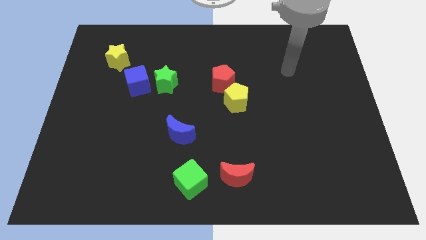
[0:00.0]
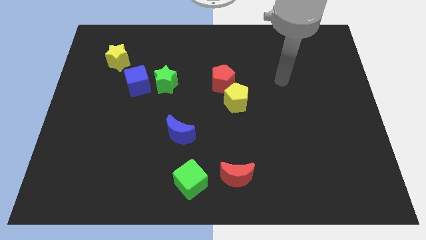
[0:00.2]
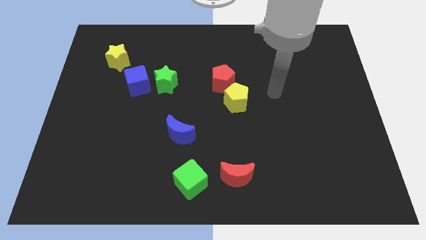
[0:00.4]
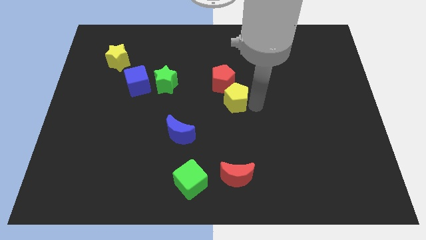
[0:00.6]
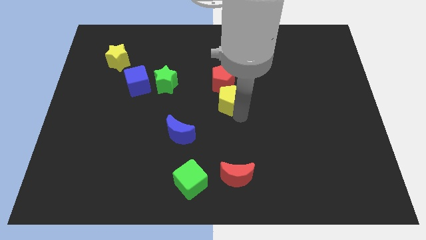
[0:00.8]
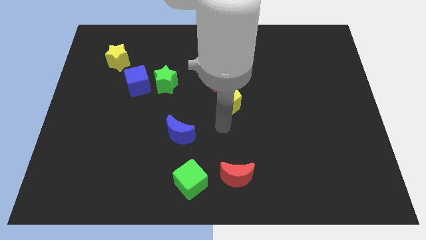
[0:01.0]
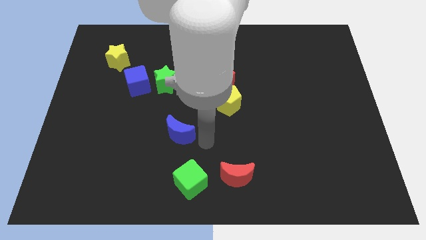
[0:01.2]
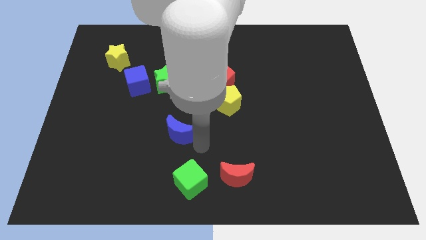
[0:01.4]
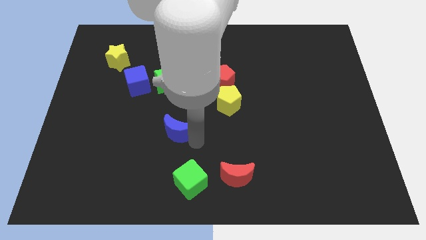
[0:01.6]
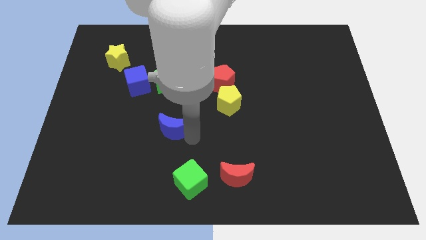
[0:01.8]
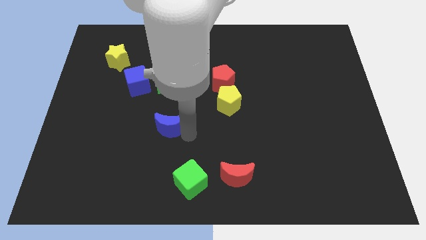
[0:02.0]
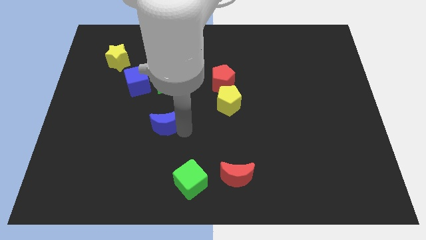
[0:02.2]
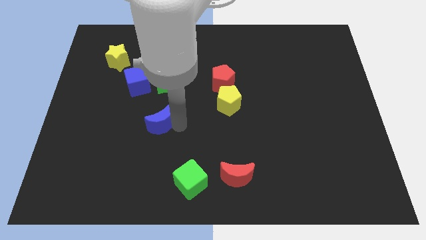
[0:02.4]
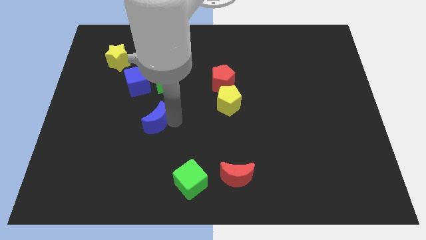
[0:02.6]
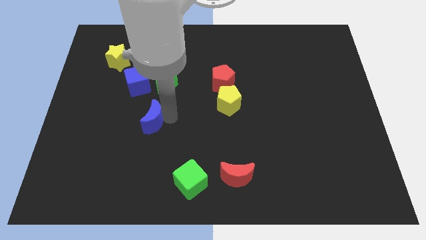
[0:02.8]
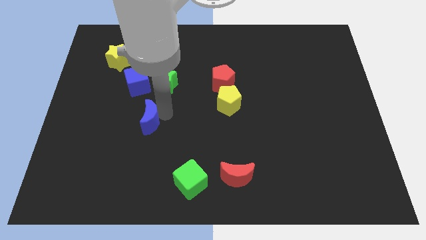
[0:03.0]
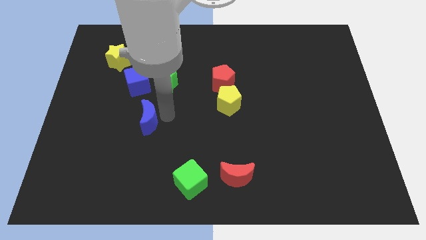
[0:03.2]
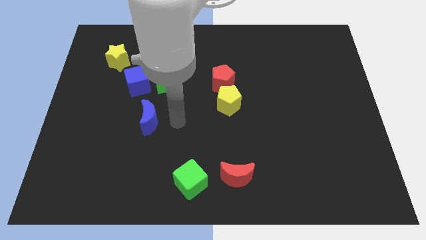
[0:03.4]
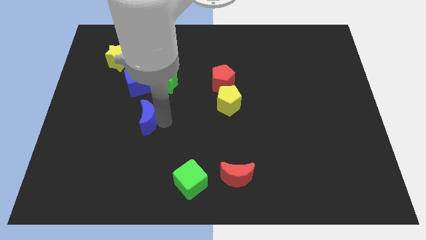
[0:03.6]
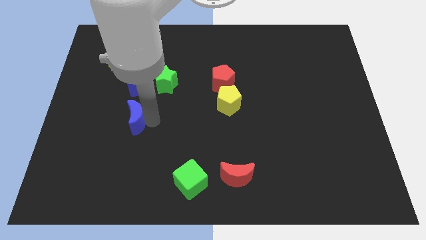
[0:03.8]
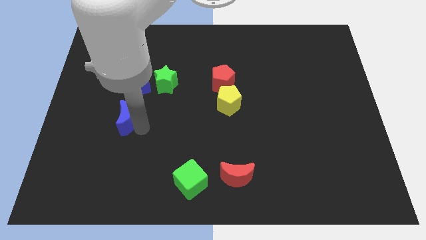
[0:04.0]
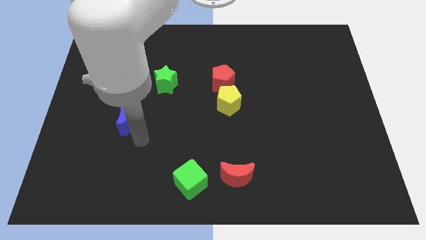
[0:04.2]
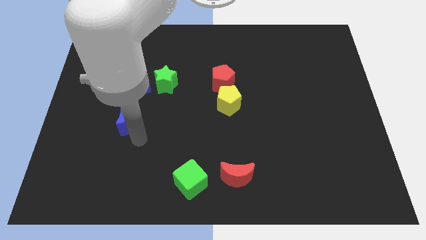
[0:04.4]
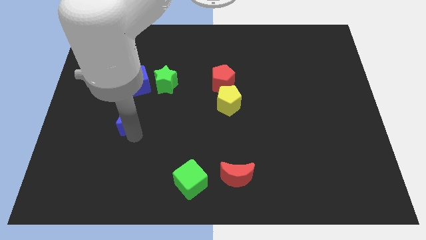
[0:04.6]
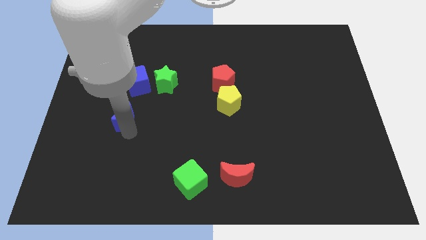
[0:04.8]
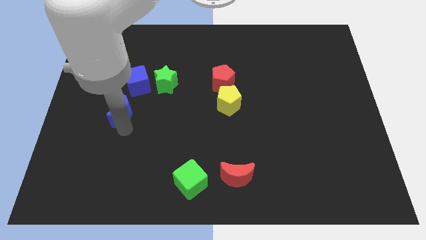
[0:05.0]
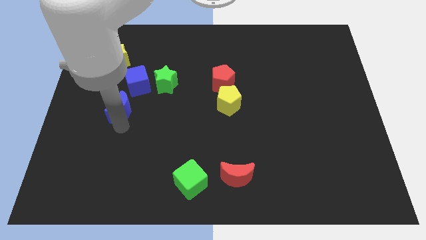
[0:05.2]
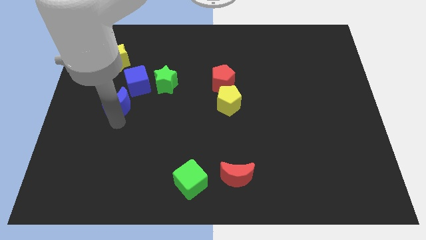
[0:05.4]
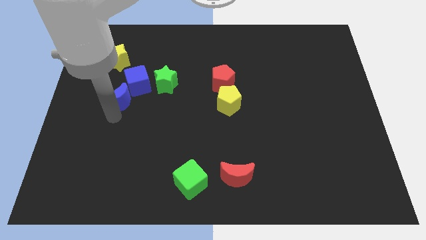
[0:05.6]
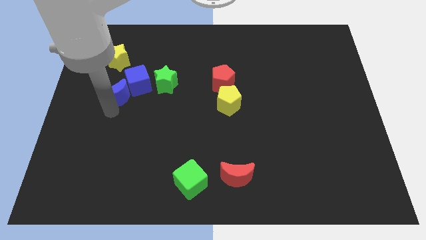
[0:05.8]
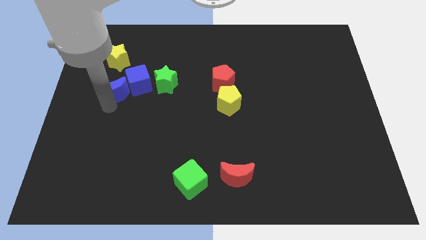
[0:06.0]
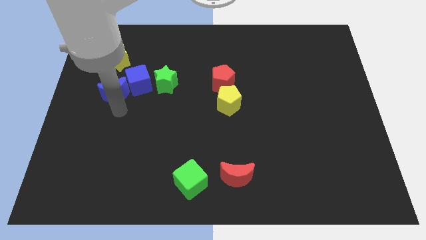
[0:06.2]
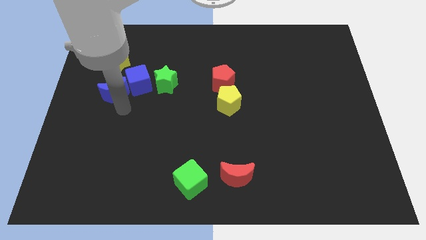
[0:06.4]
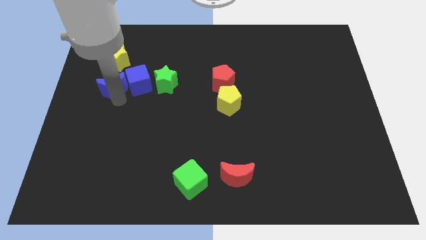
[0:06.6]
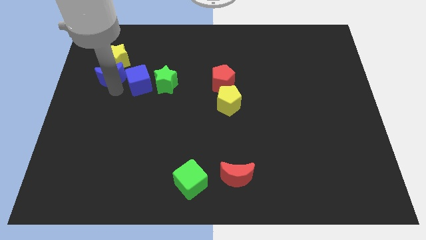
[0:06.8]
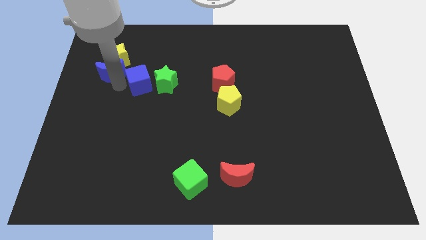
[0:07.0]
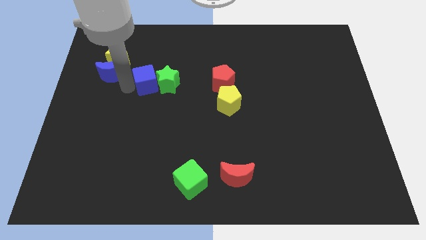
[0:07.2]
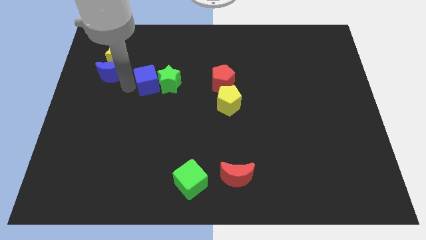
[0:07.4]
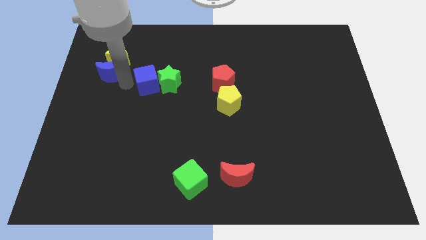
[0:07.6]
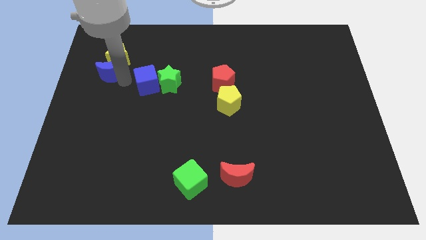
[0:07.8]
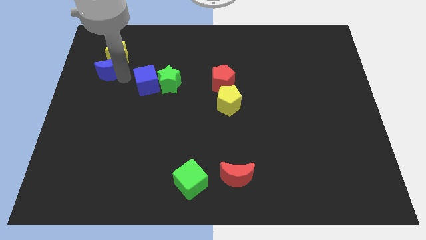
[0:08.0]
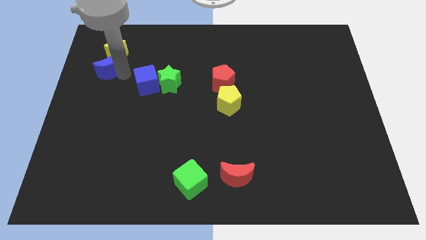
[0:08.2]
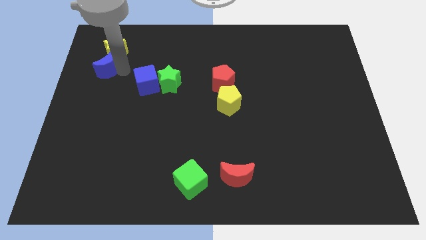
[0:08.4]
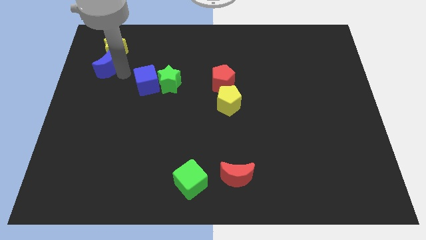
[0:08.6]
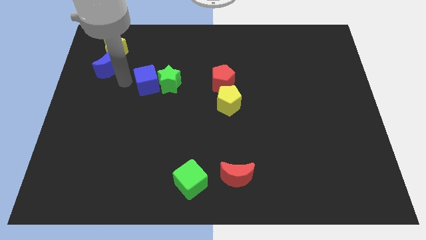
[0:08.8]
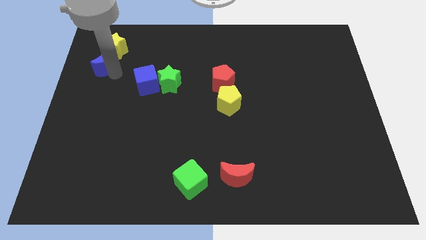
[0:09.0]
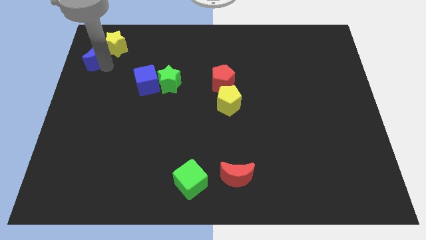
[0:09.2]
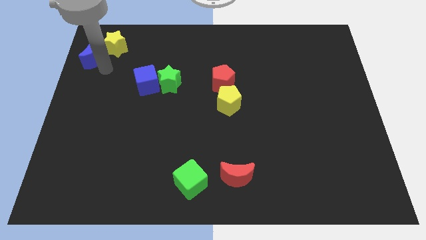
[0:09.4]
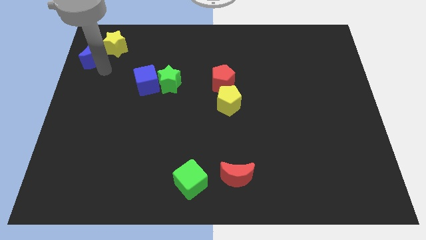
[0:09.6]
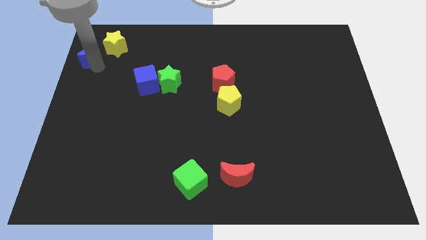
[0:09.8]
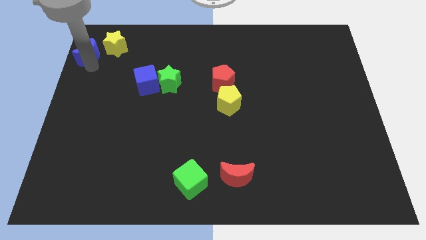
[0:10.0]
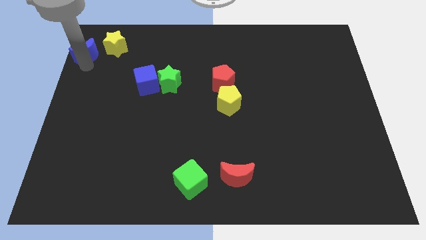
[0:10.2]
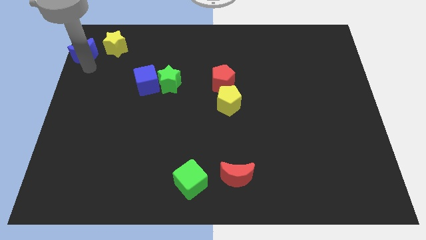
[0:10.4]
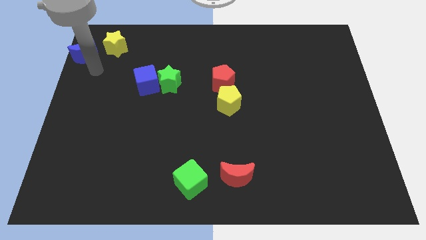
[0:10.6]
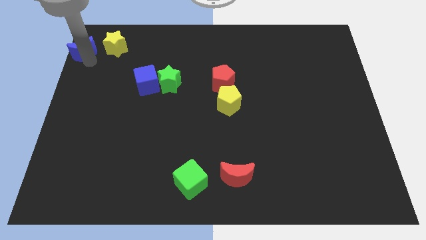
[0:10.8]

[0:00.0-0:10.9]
push the blue moon to the top left corner
